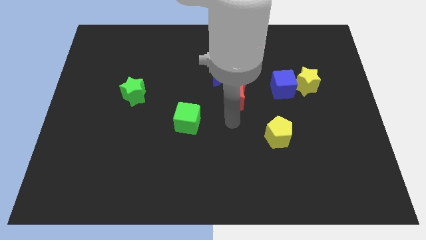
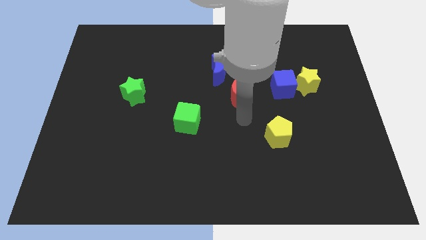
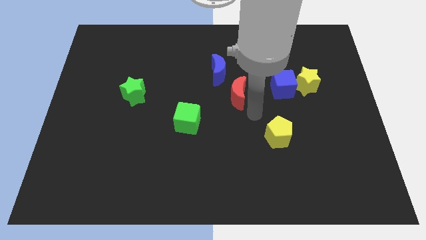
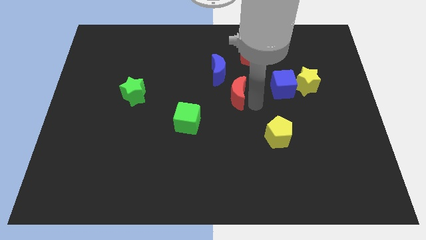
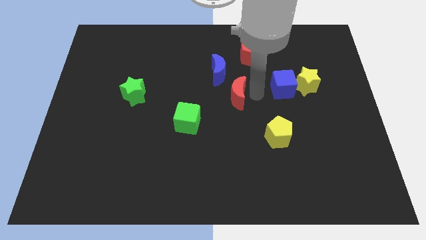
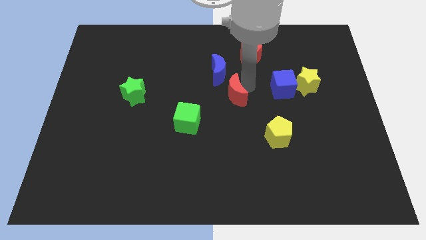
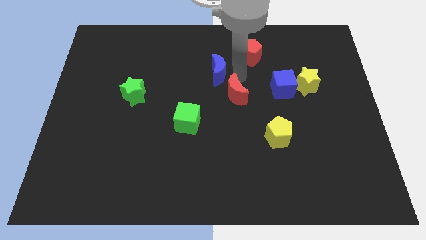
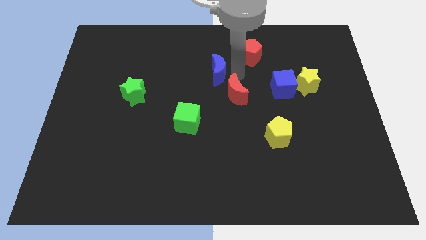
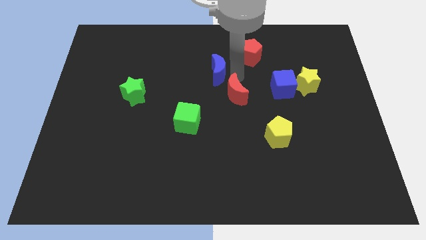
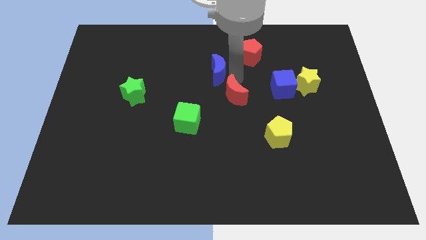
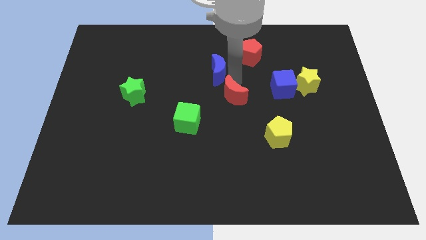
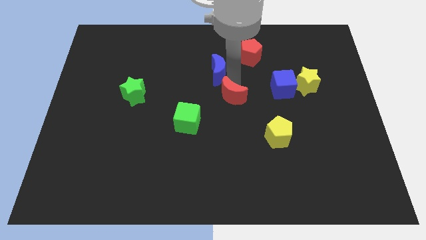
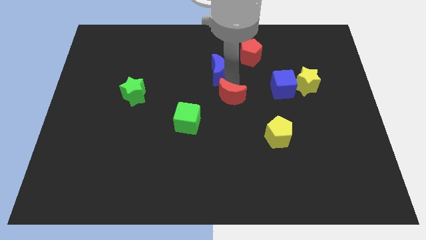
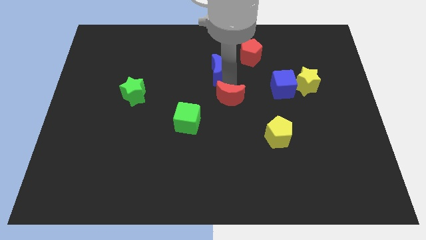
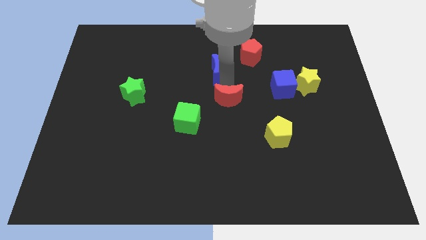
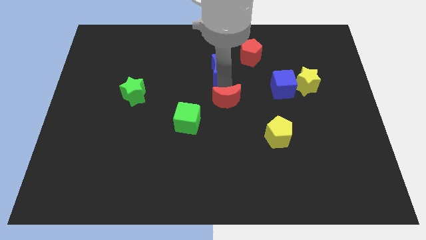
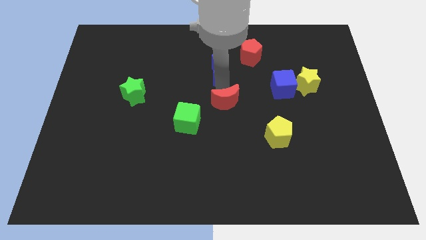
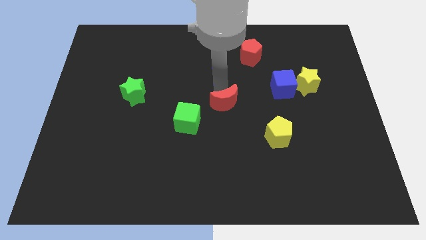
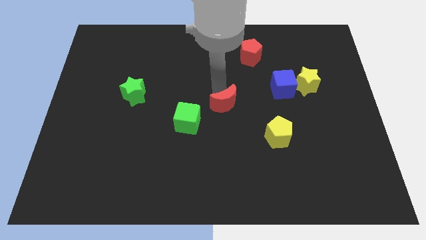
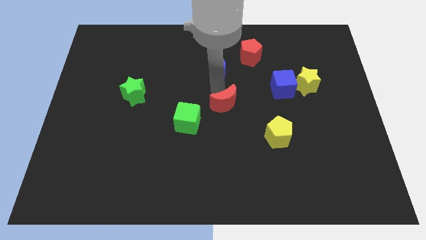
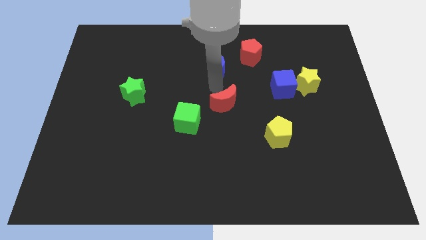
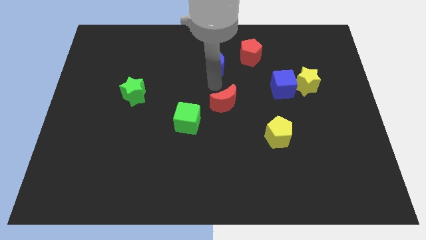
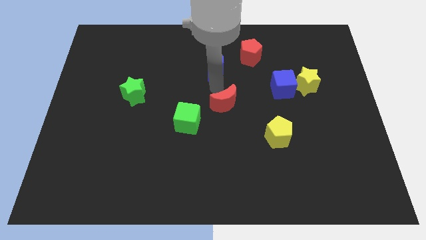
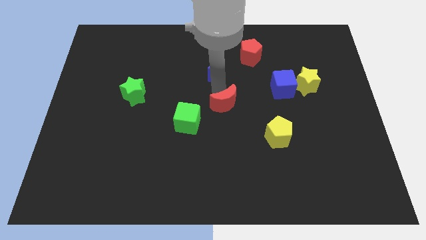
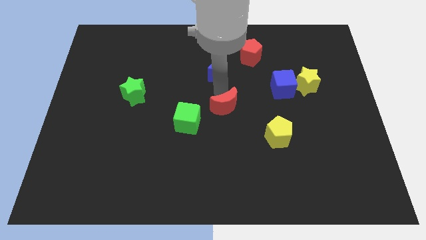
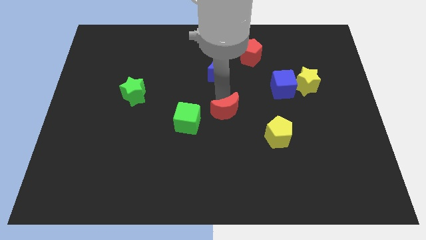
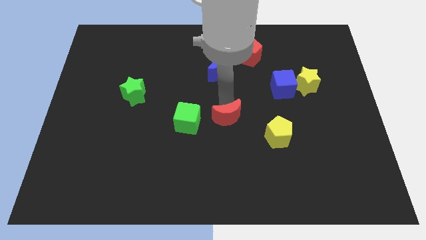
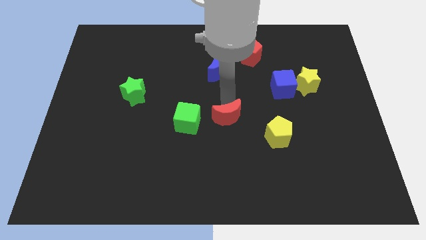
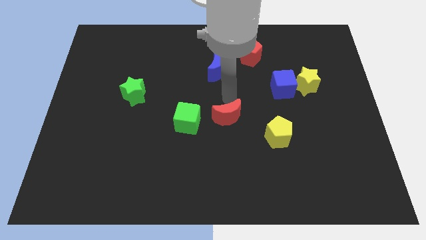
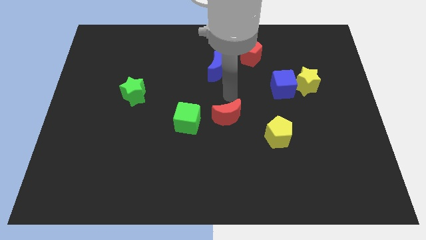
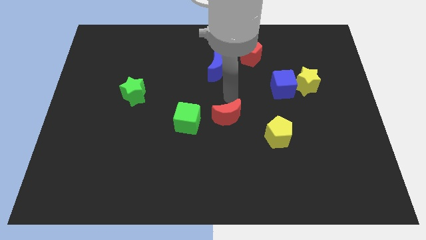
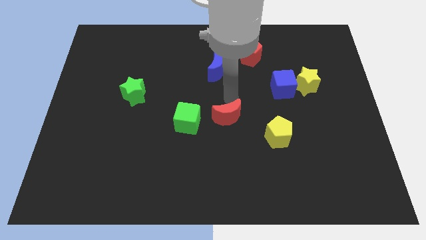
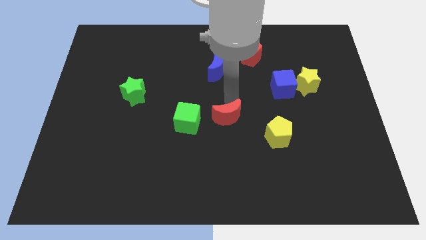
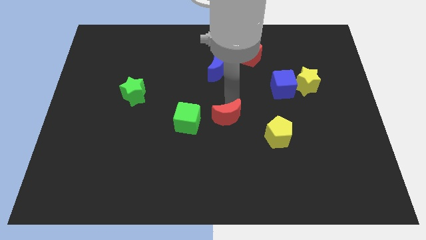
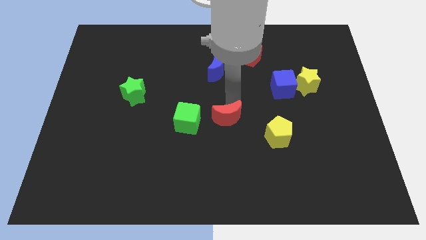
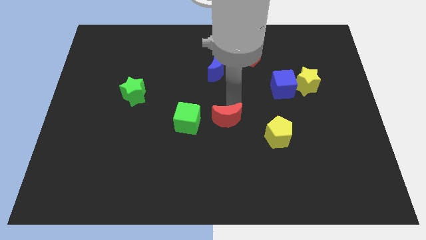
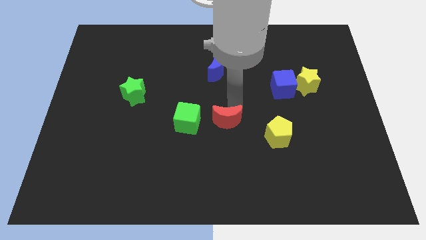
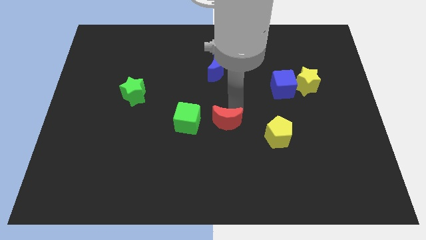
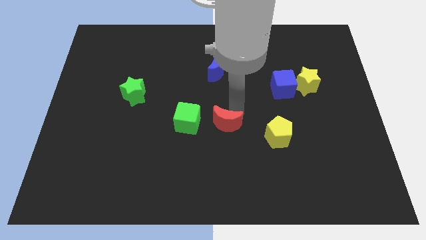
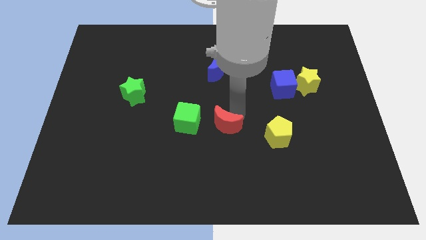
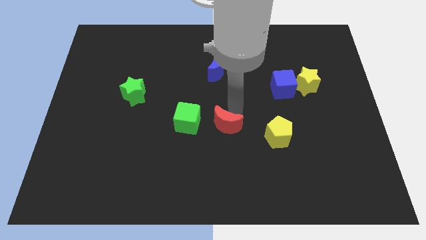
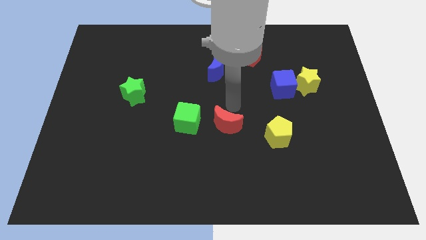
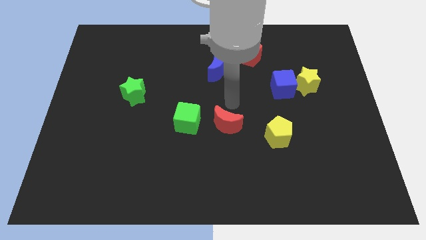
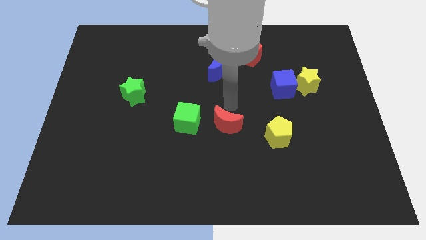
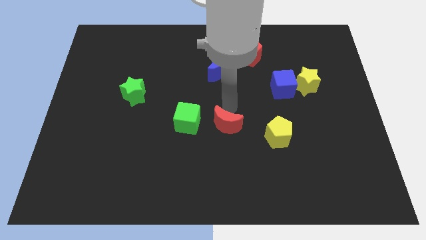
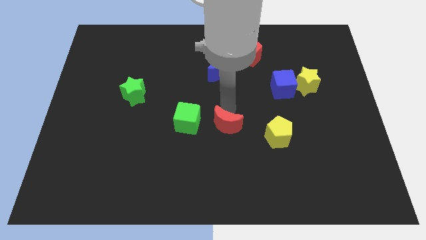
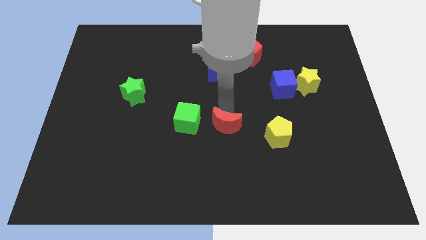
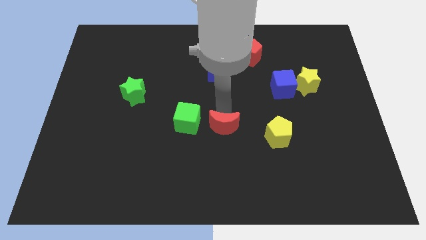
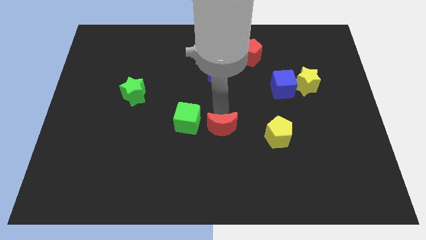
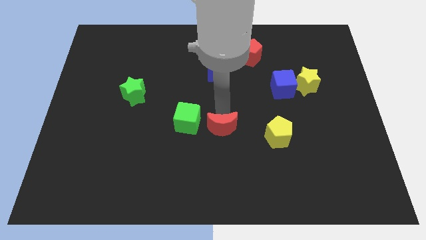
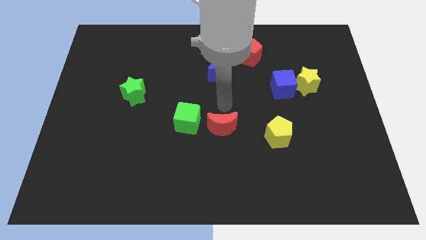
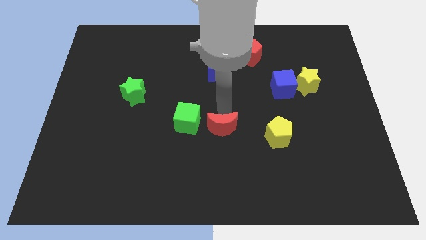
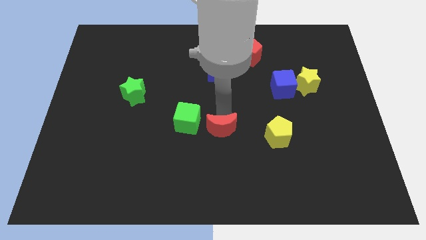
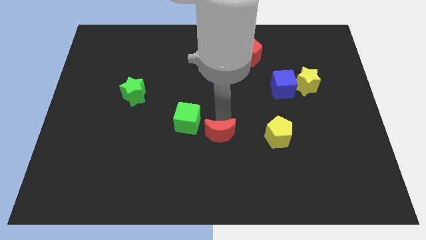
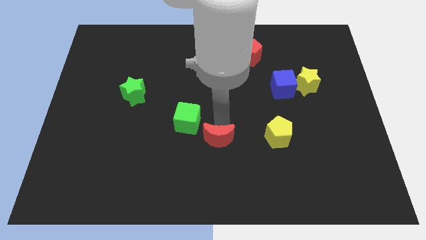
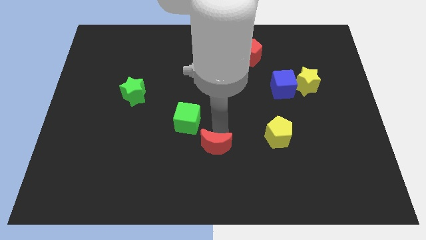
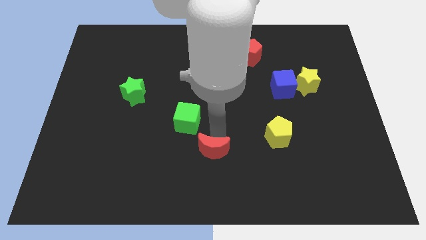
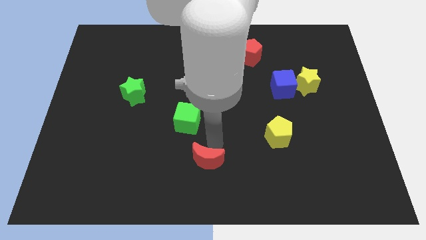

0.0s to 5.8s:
slide the red moon to the bottom

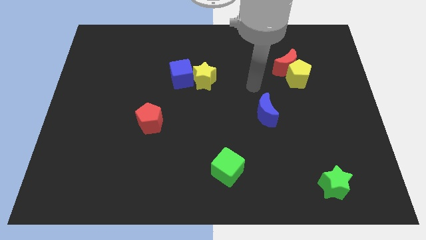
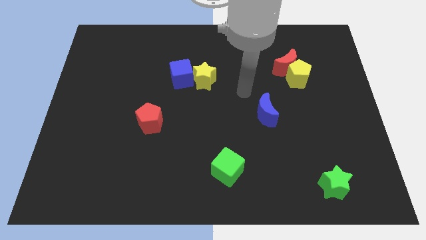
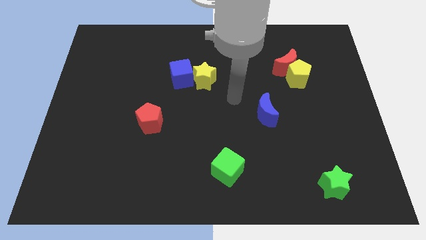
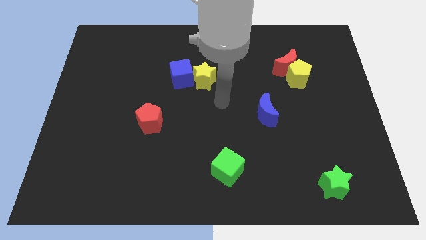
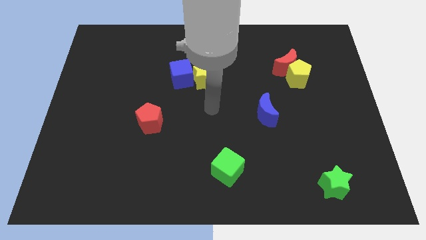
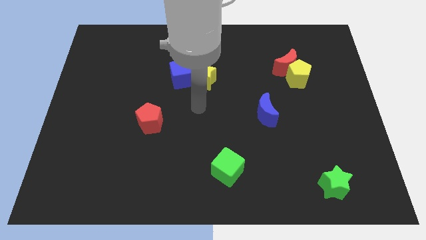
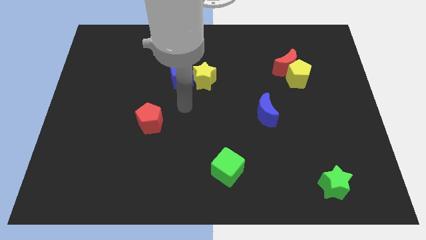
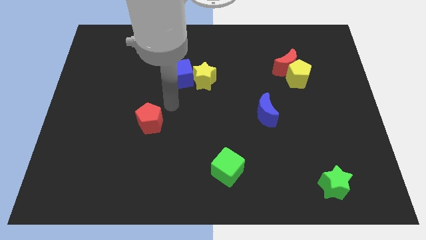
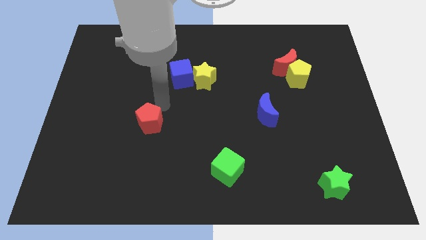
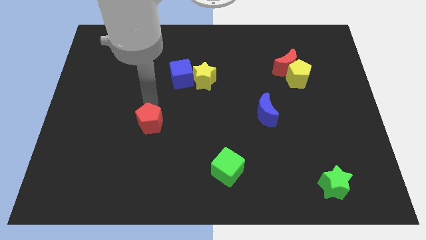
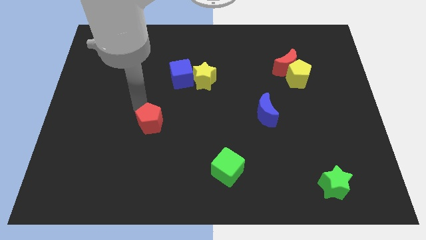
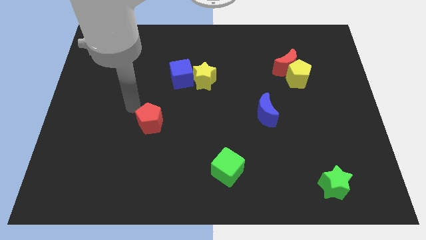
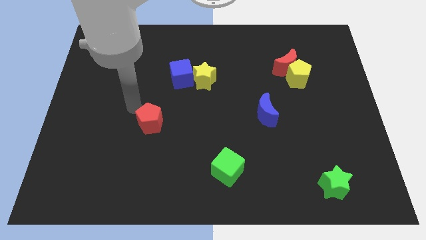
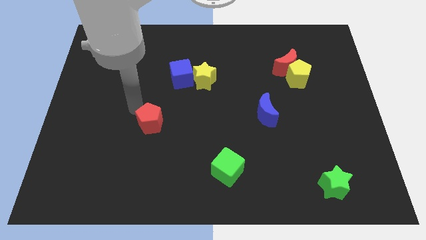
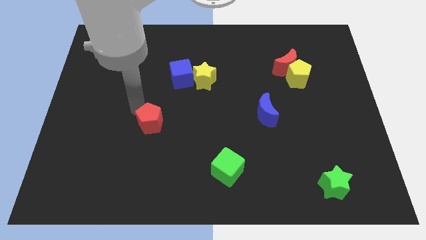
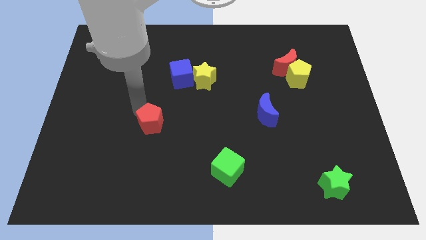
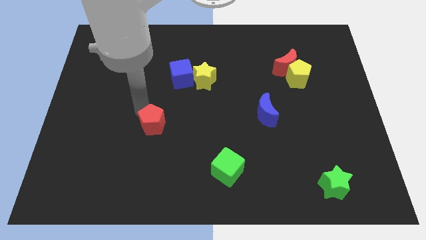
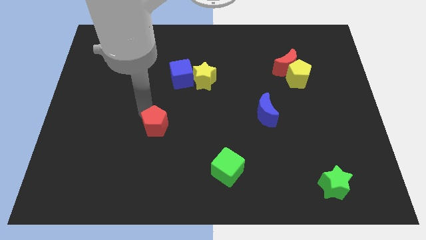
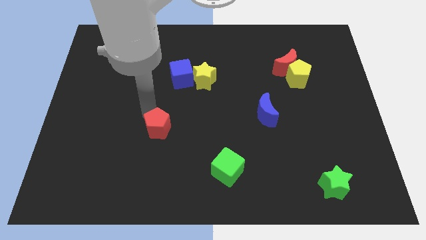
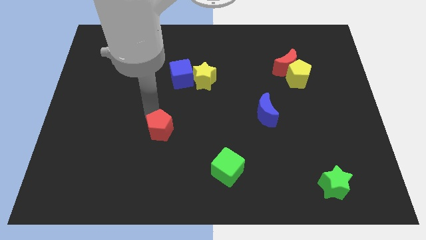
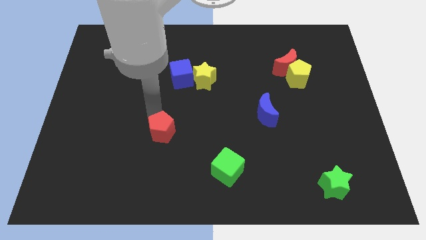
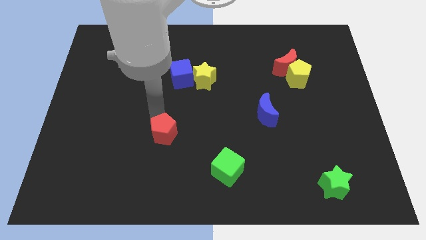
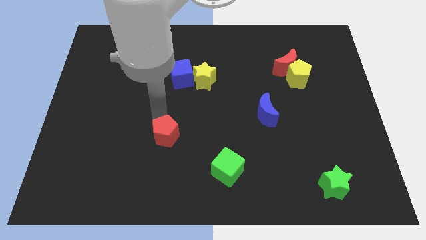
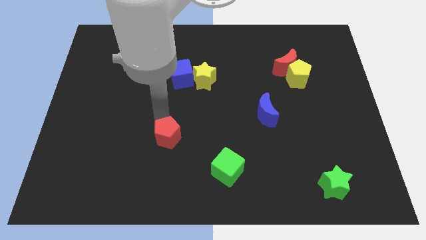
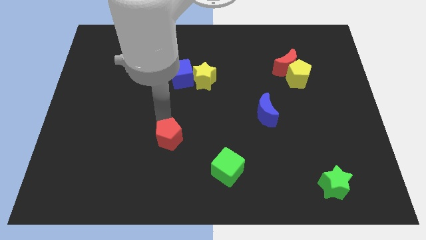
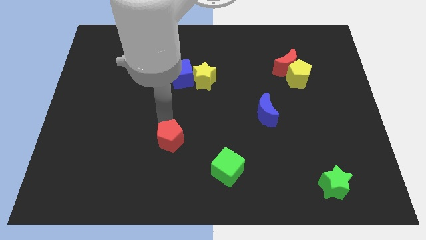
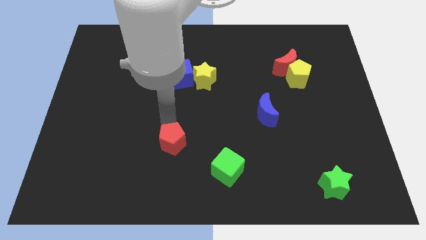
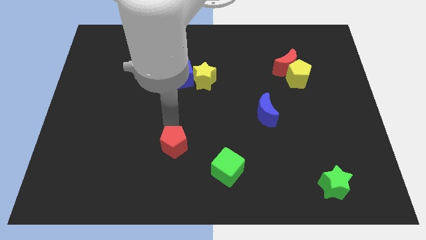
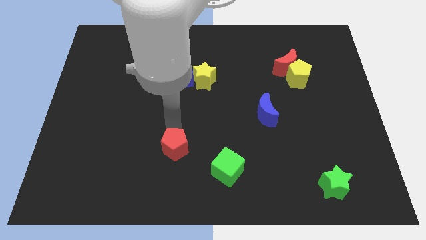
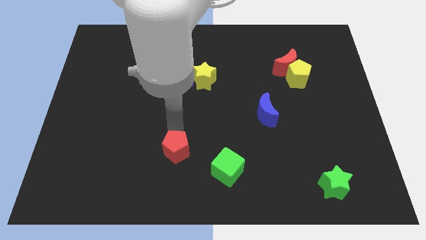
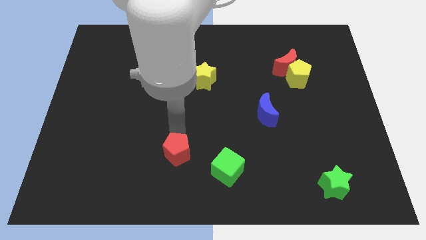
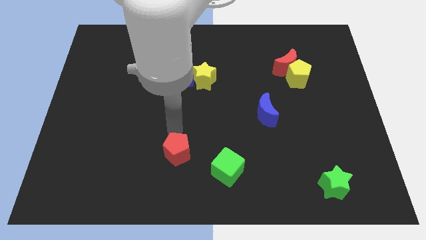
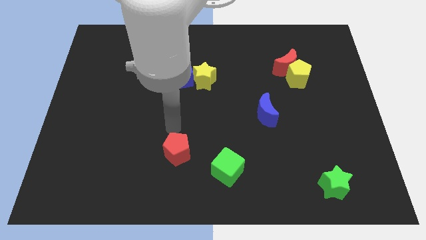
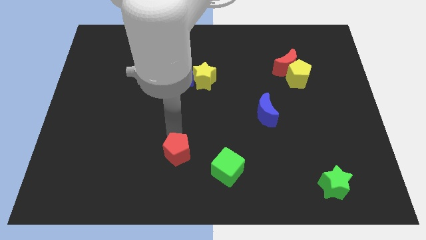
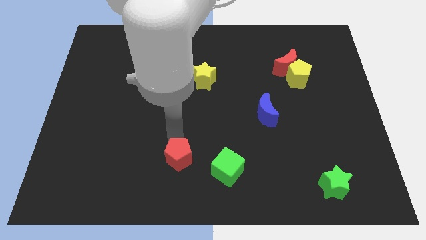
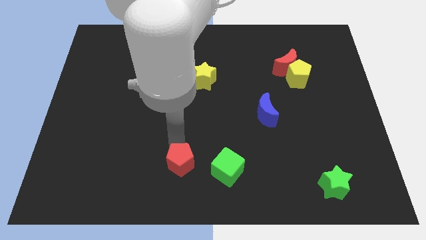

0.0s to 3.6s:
move the red pentagon to the bottom
